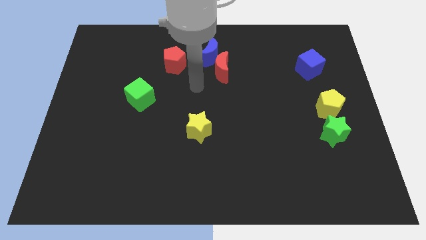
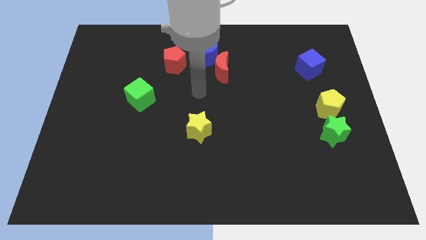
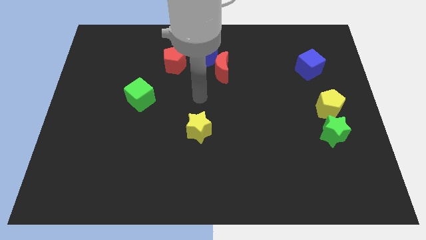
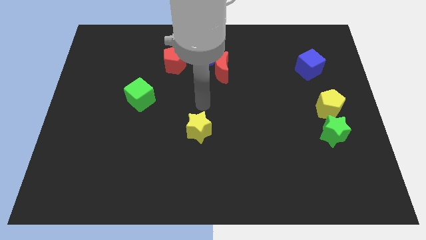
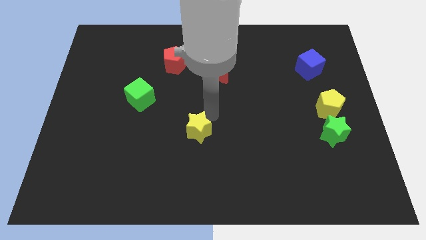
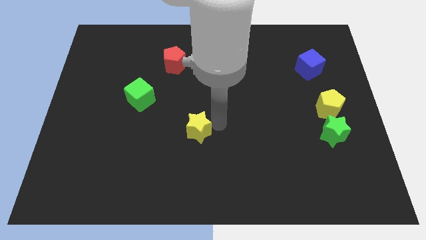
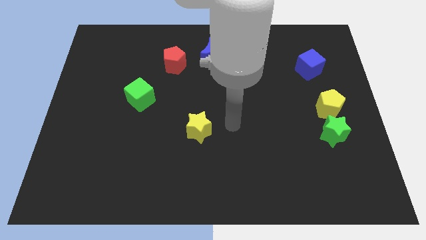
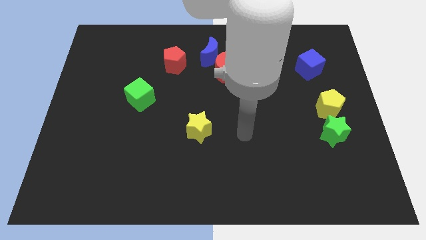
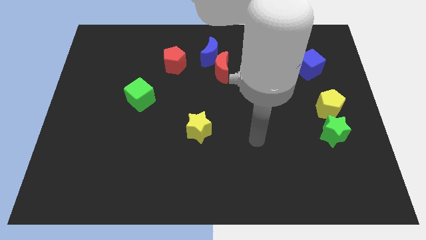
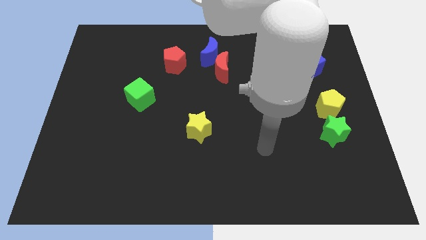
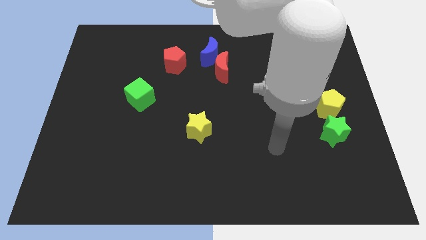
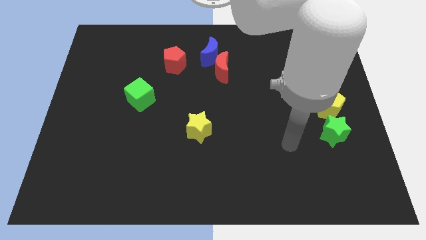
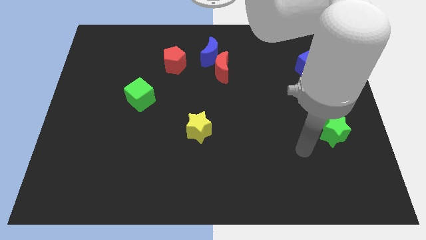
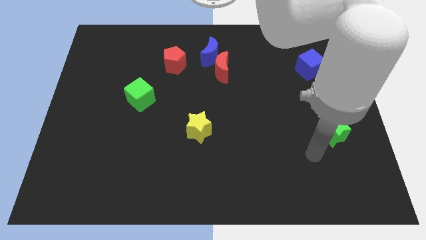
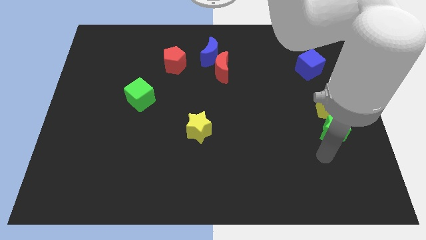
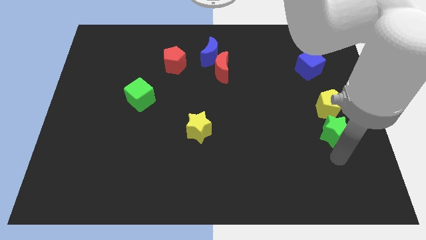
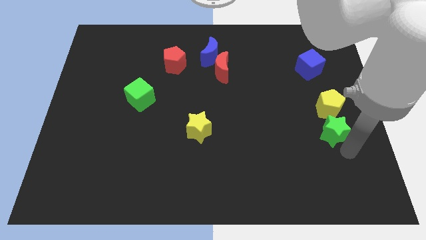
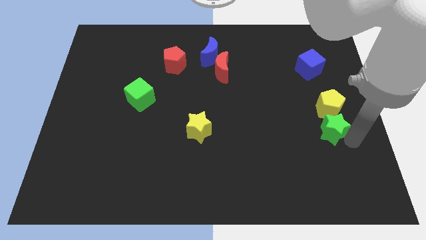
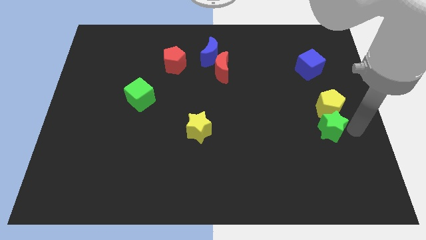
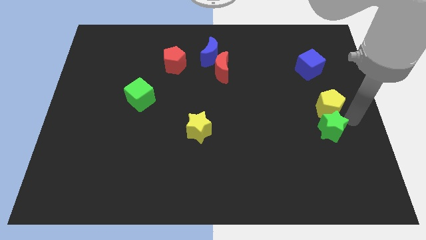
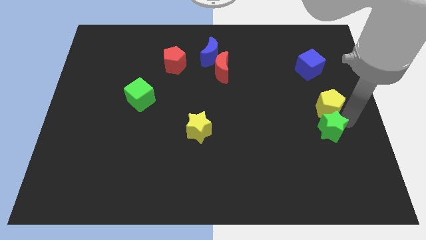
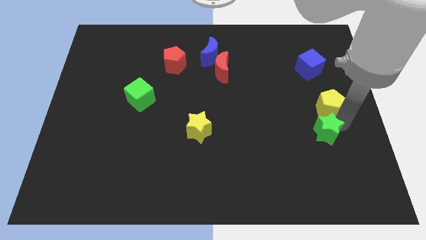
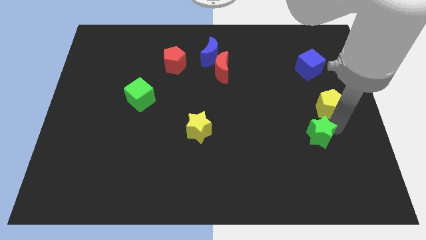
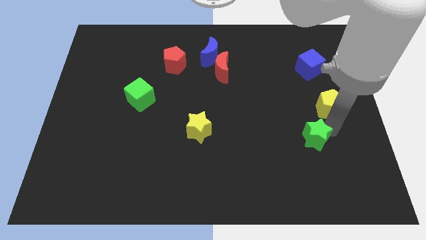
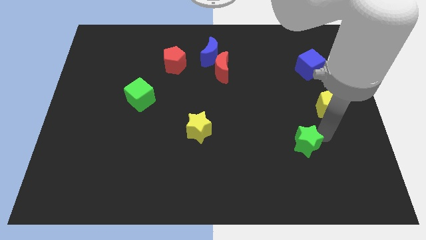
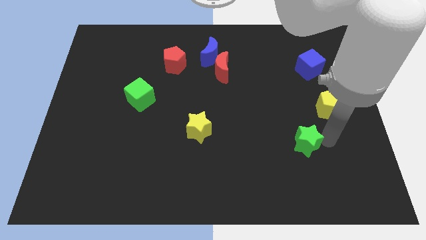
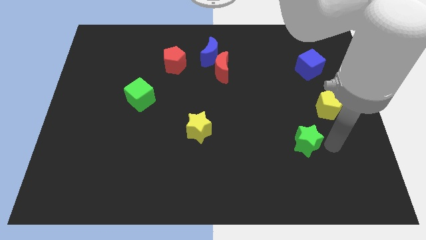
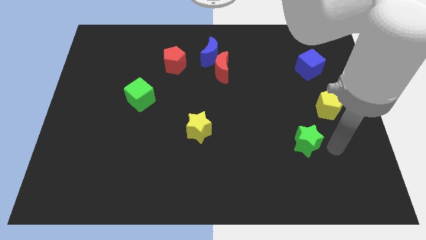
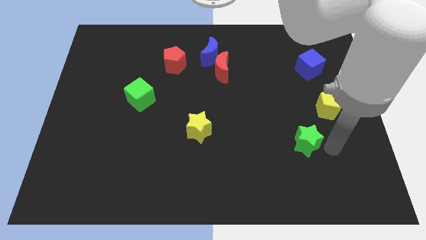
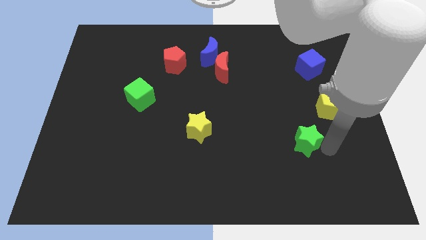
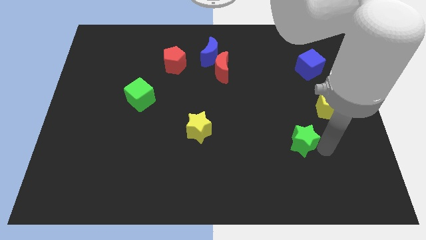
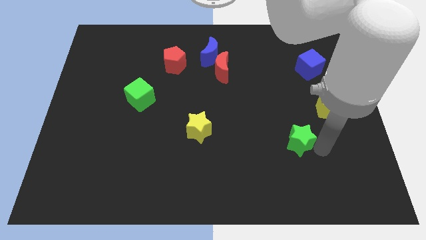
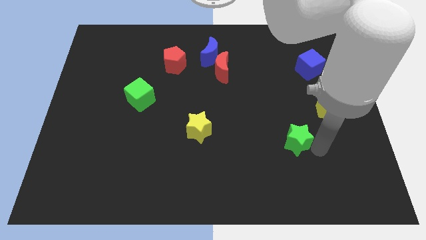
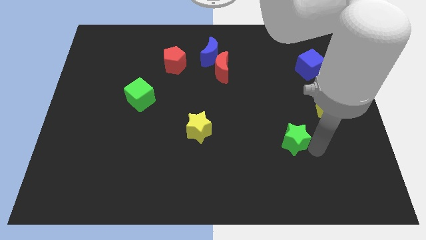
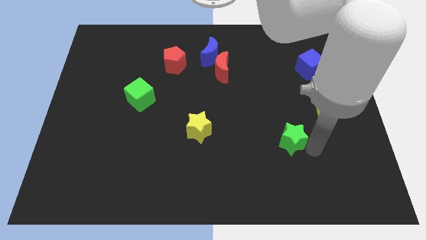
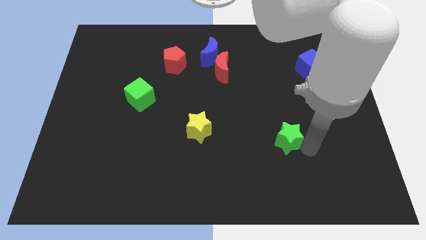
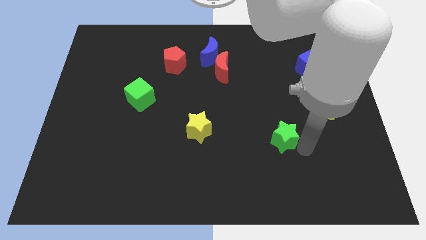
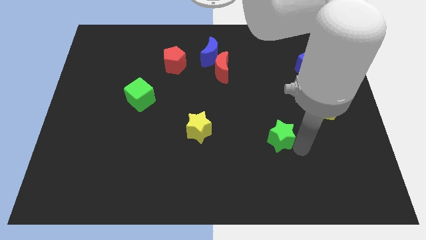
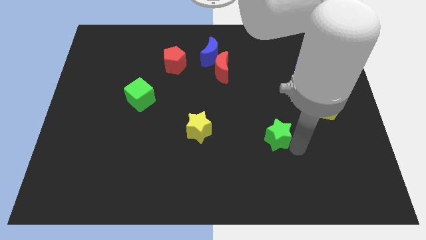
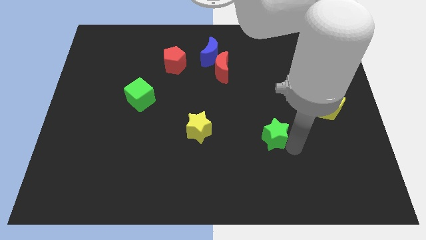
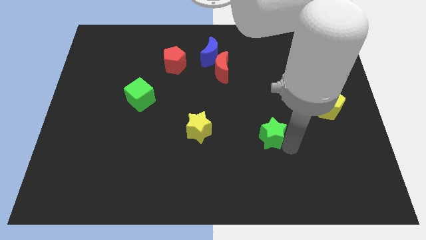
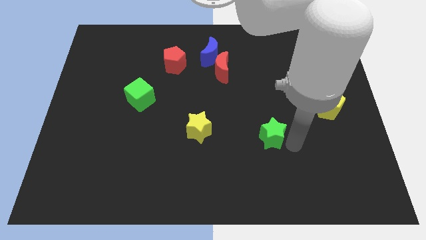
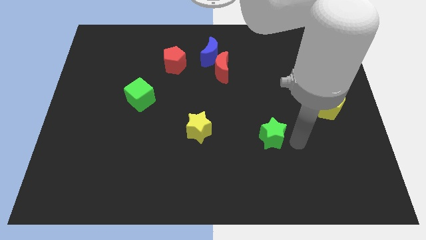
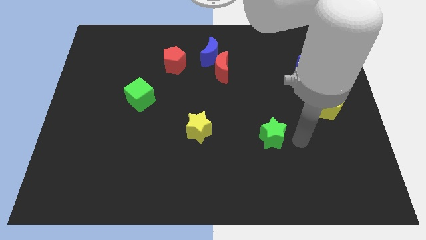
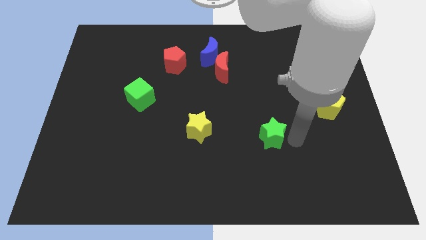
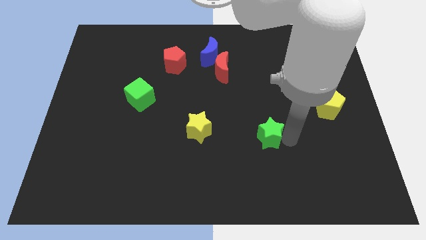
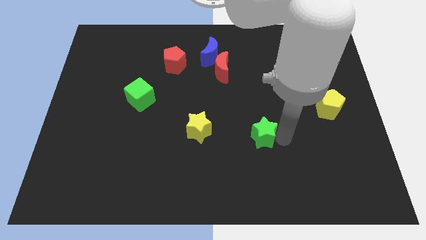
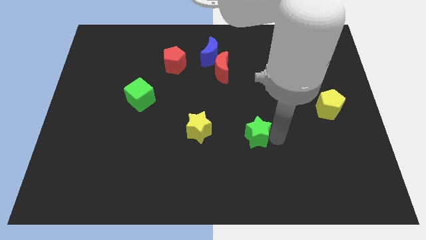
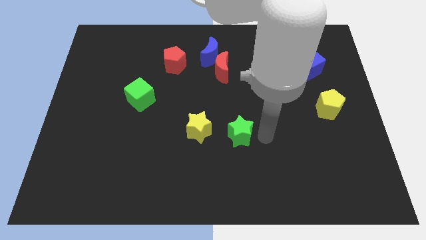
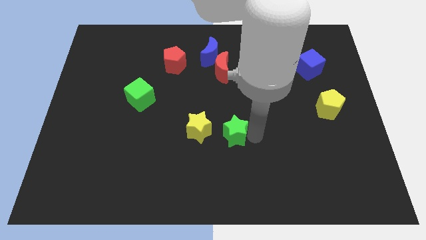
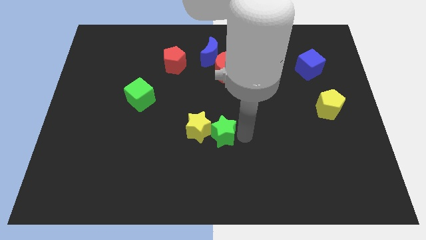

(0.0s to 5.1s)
move the green star to the yellow star

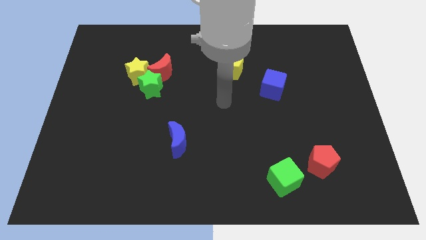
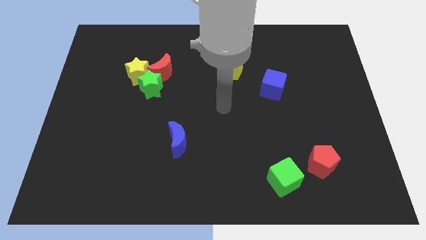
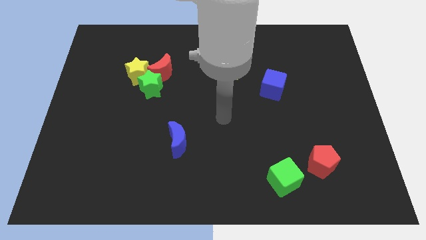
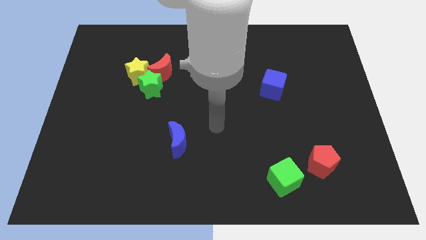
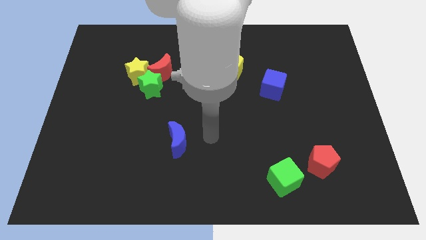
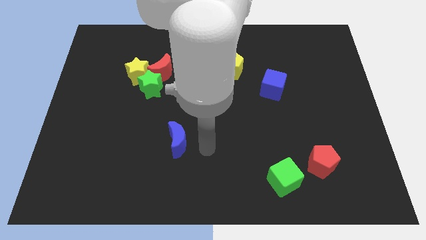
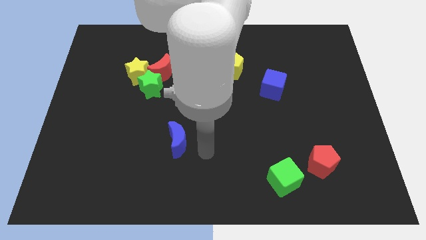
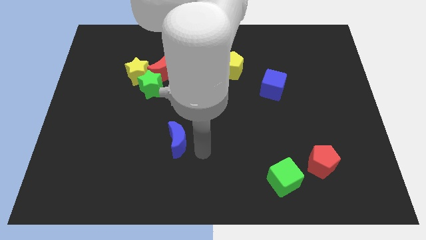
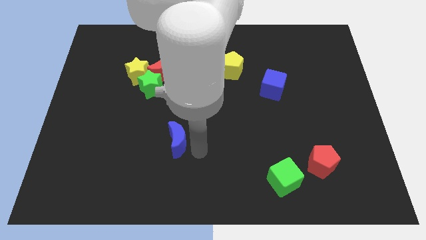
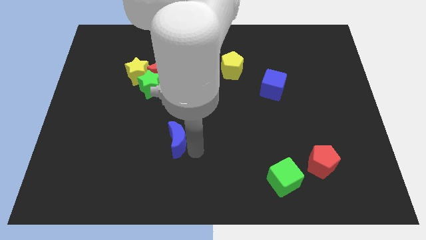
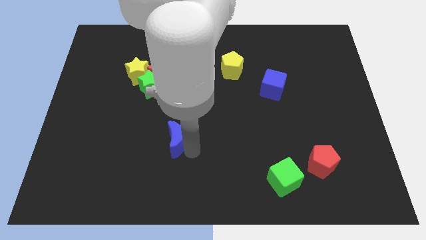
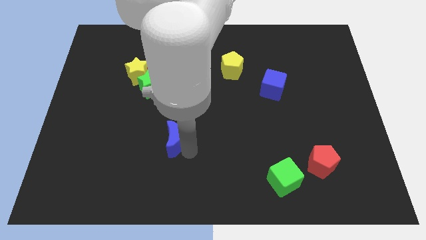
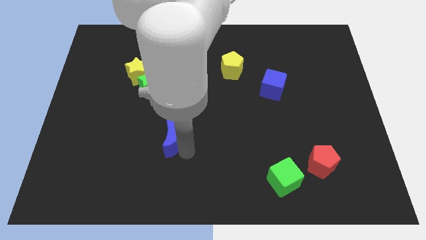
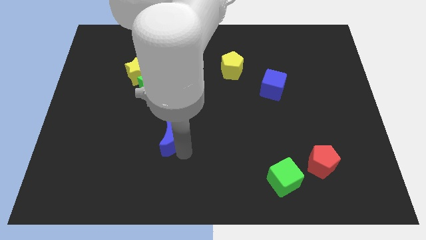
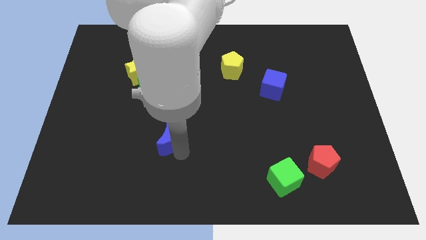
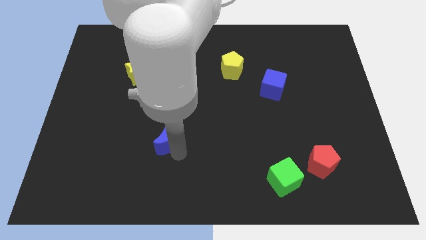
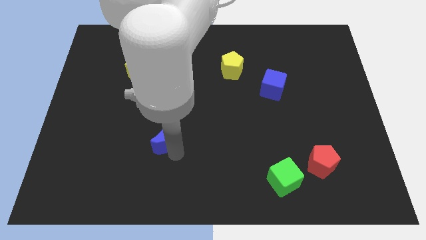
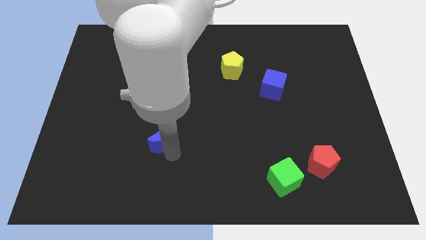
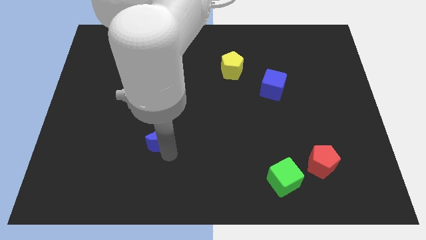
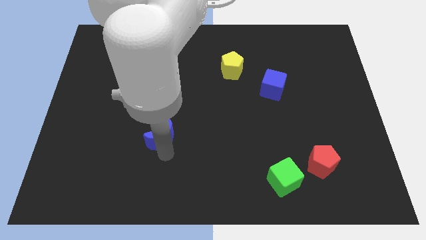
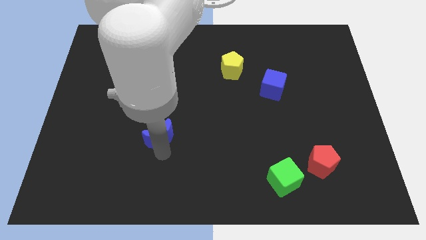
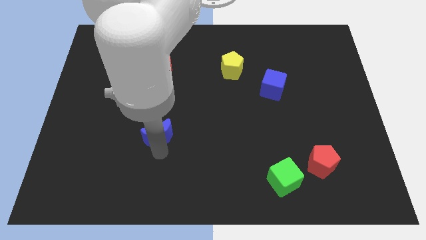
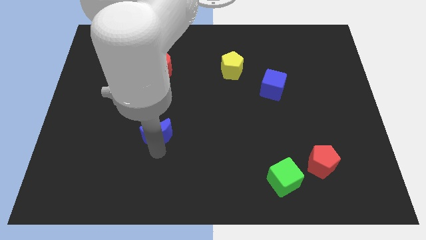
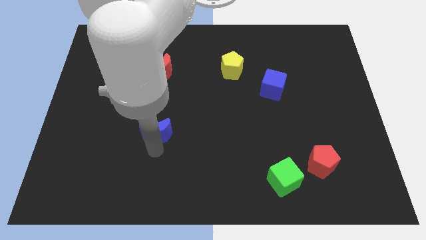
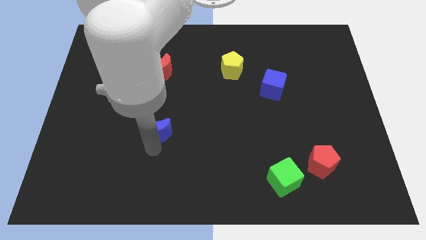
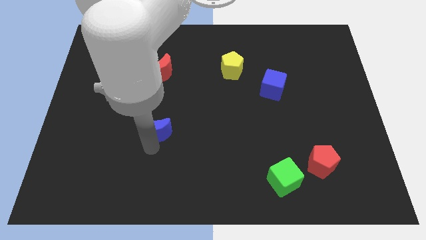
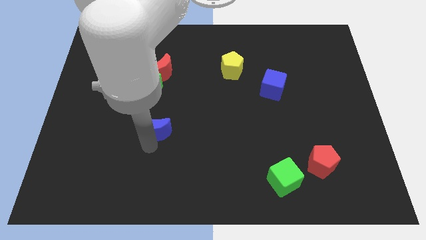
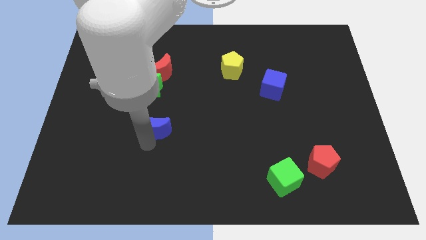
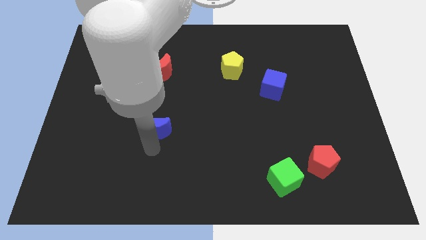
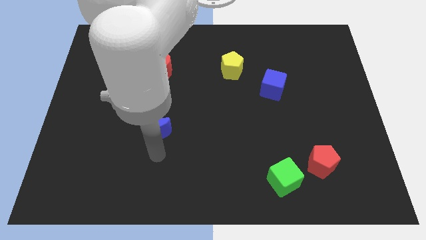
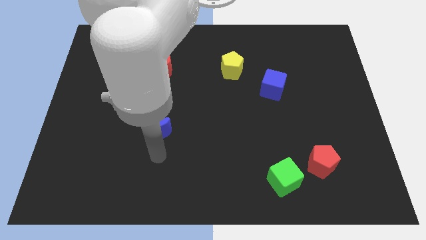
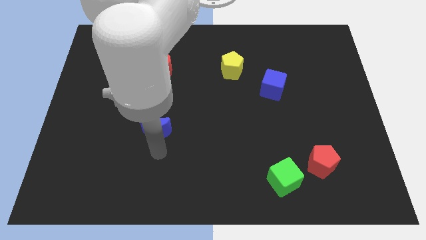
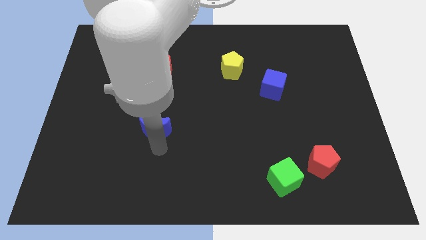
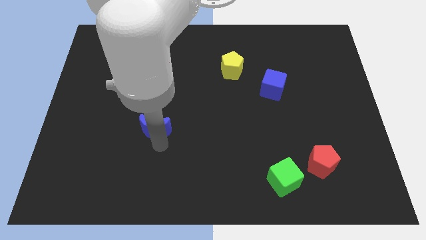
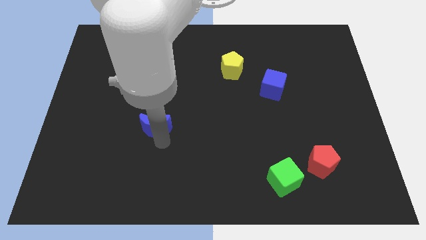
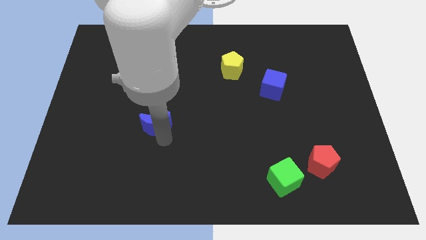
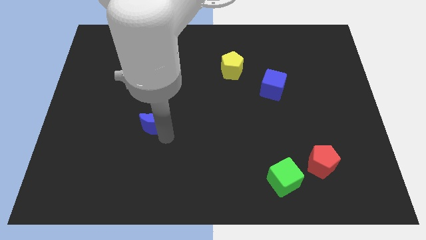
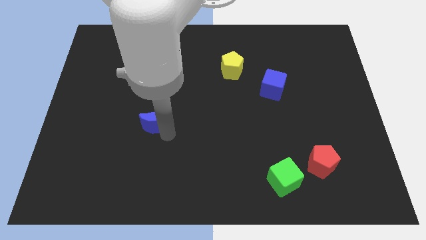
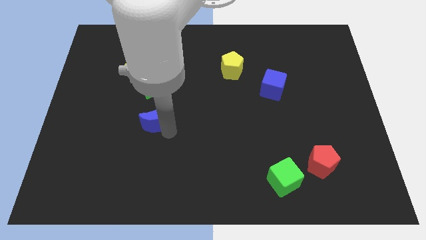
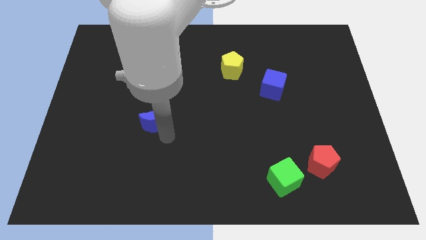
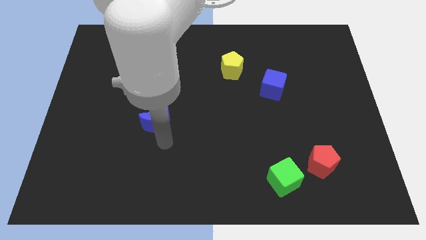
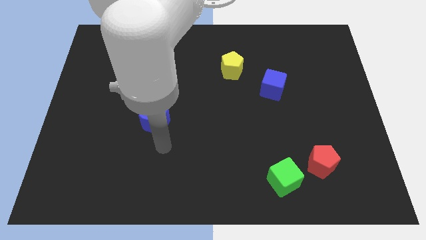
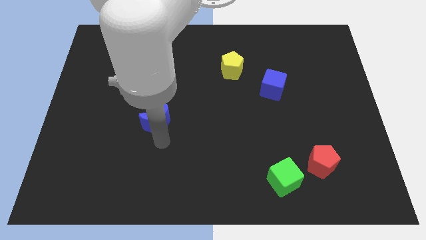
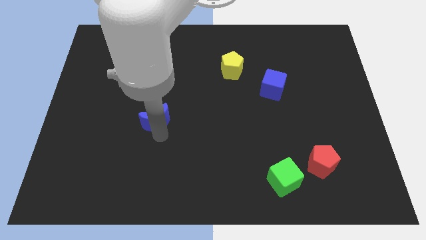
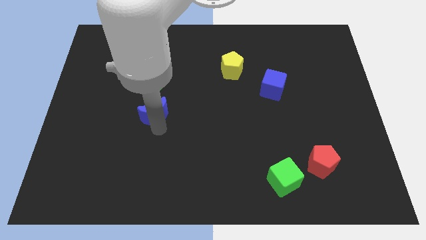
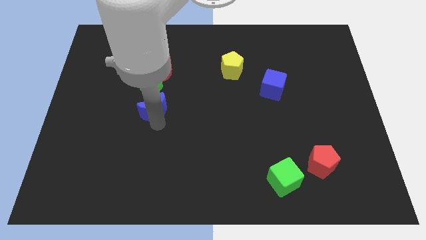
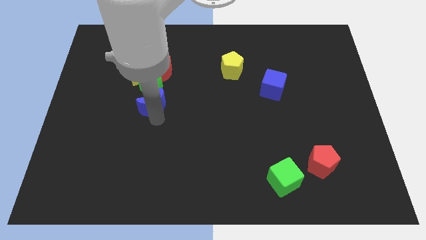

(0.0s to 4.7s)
push the blue moon to the green star
